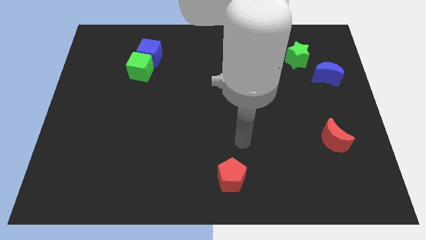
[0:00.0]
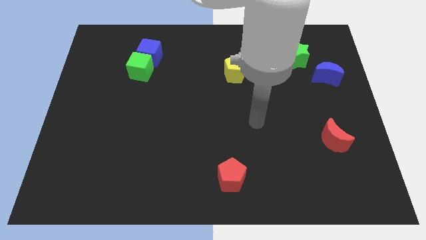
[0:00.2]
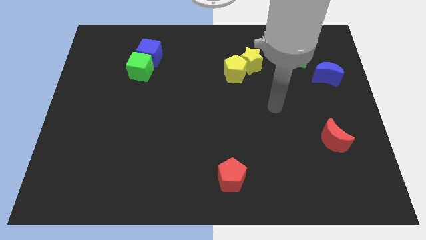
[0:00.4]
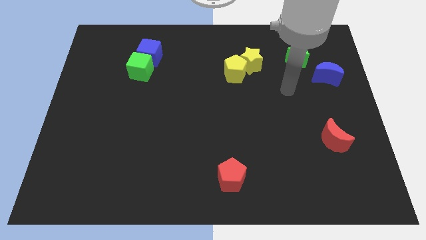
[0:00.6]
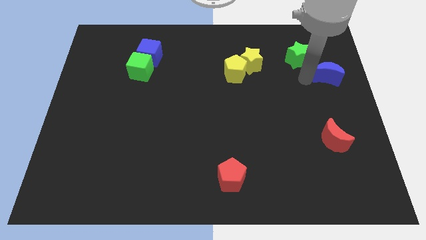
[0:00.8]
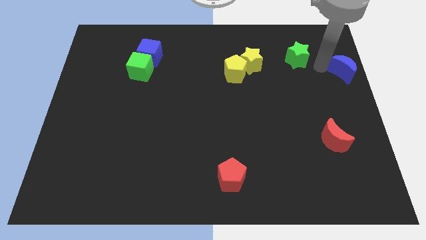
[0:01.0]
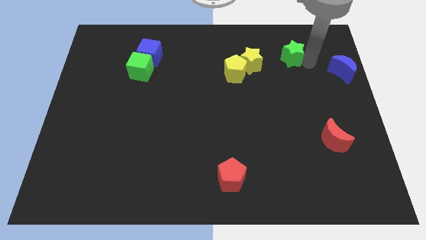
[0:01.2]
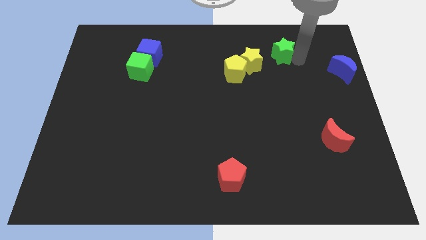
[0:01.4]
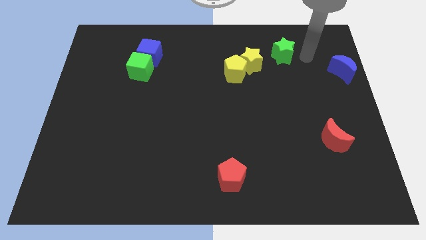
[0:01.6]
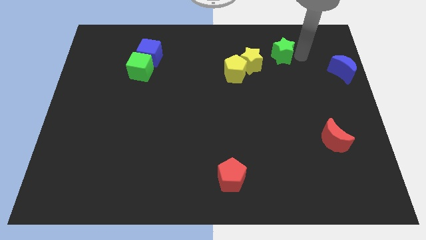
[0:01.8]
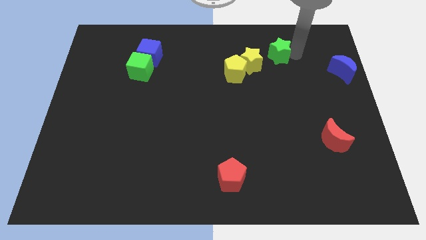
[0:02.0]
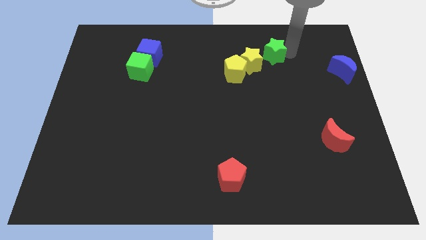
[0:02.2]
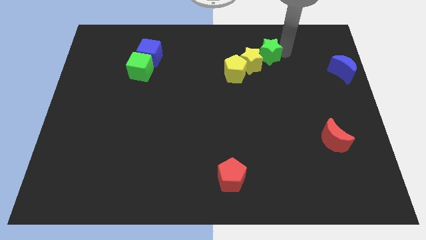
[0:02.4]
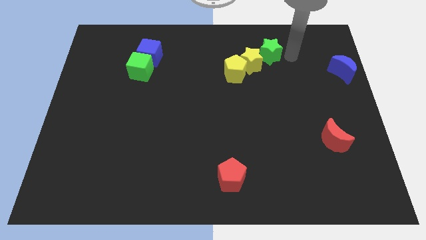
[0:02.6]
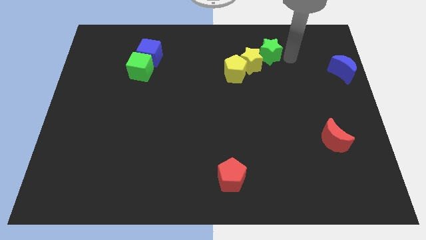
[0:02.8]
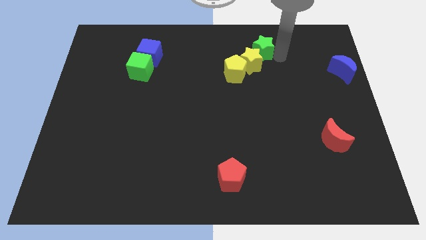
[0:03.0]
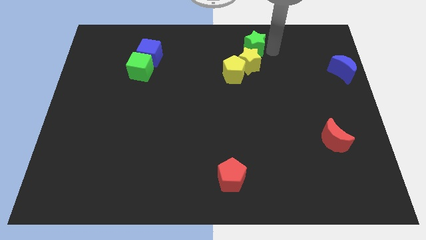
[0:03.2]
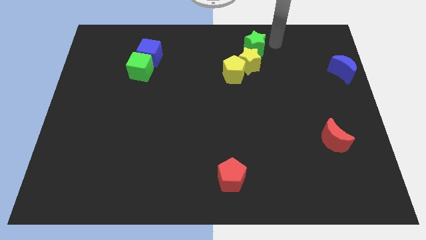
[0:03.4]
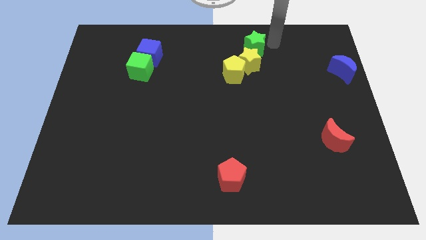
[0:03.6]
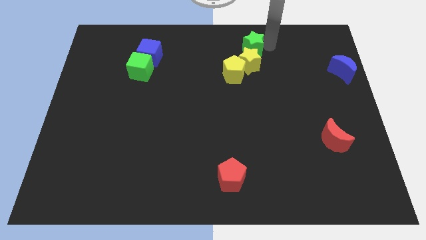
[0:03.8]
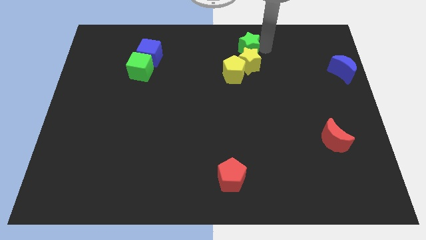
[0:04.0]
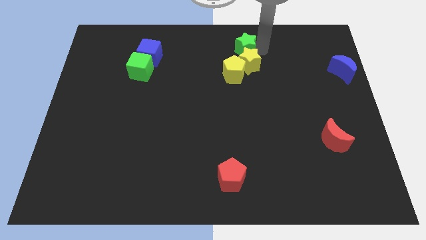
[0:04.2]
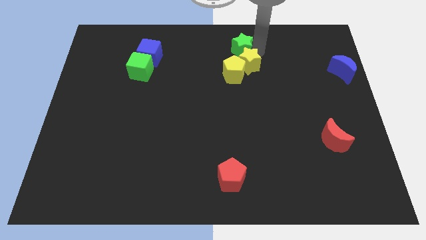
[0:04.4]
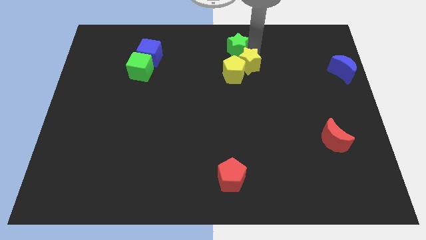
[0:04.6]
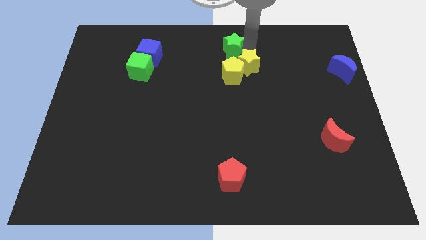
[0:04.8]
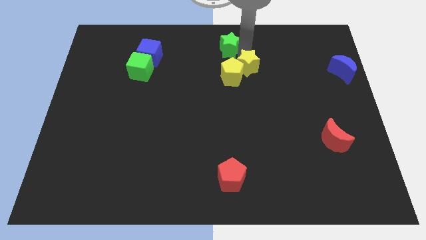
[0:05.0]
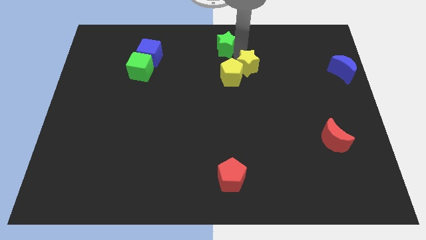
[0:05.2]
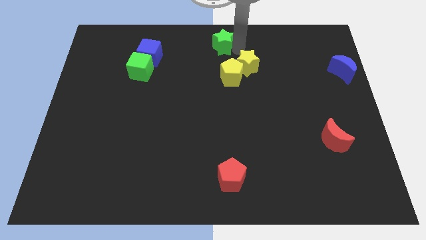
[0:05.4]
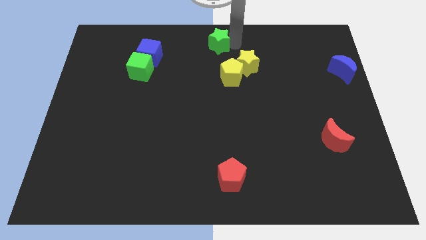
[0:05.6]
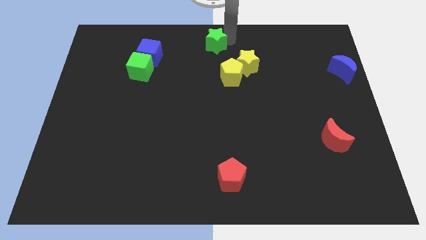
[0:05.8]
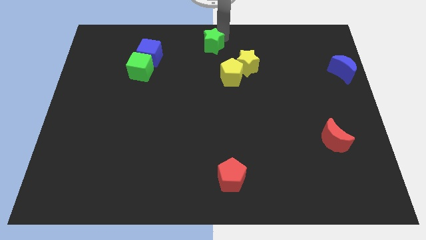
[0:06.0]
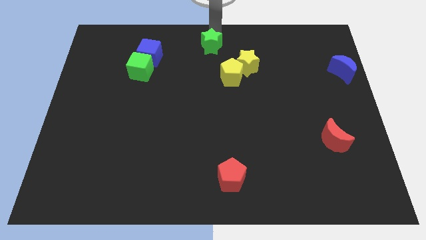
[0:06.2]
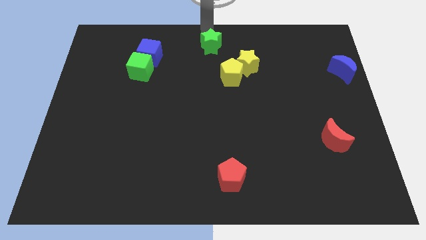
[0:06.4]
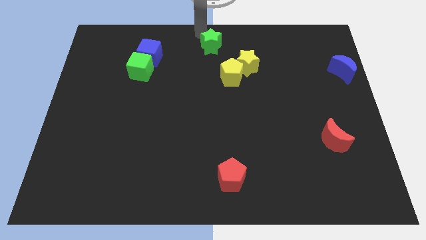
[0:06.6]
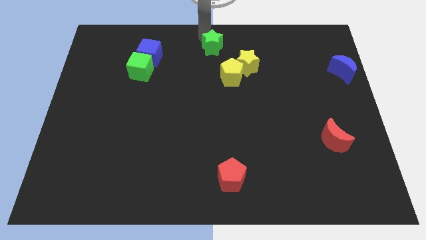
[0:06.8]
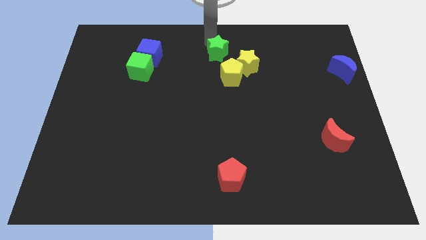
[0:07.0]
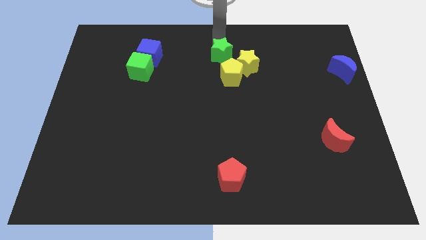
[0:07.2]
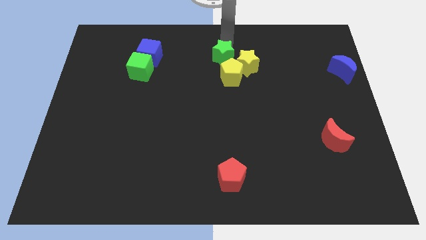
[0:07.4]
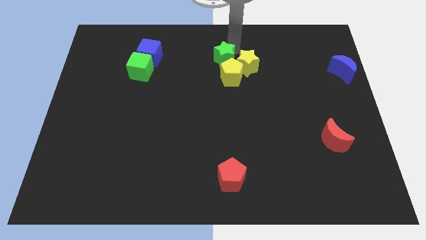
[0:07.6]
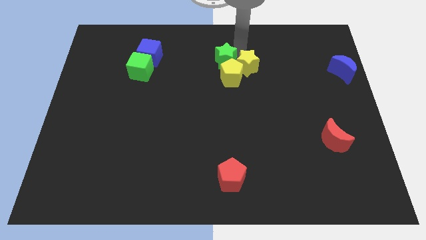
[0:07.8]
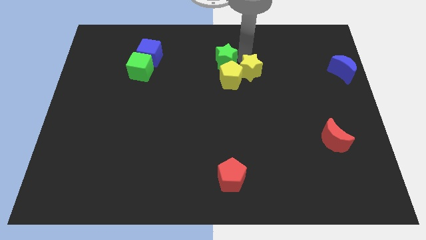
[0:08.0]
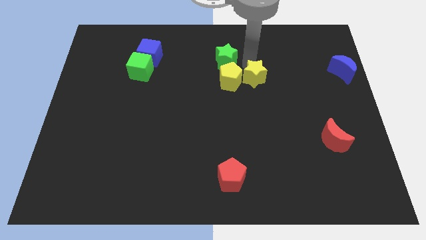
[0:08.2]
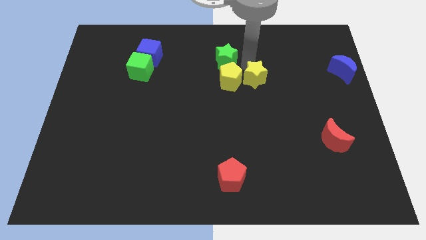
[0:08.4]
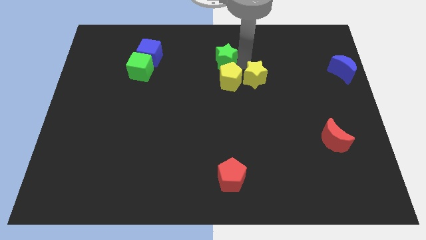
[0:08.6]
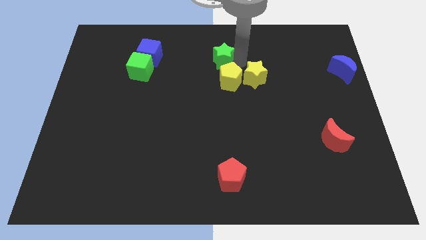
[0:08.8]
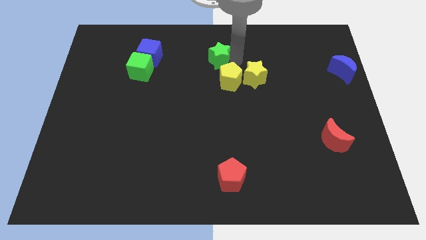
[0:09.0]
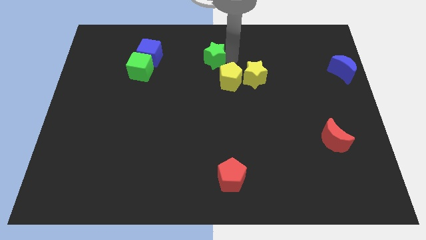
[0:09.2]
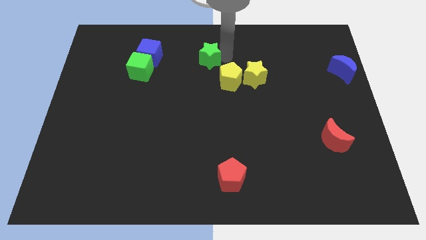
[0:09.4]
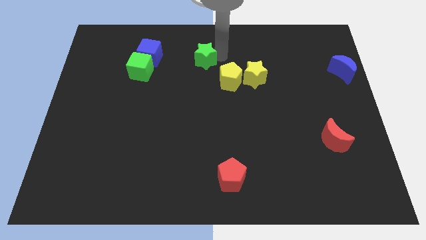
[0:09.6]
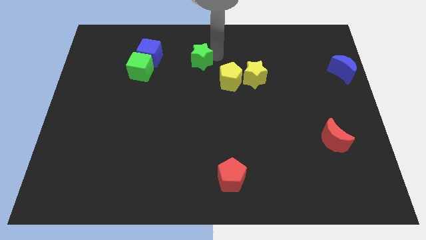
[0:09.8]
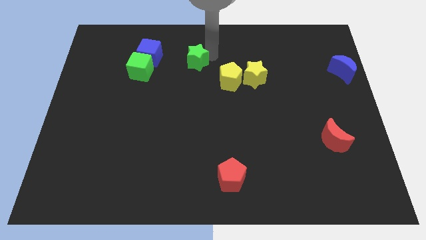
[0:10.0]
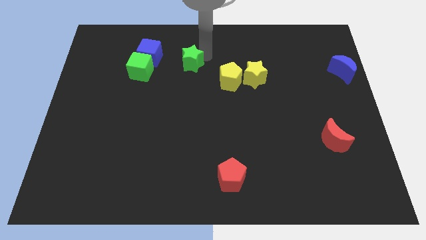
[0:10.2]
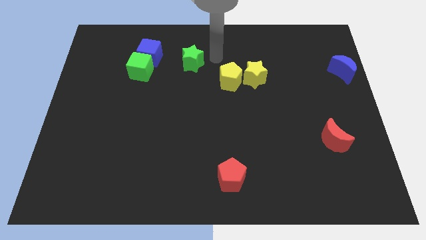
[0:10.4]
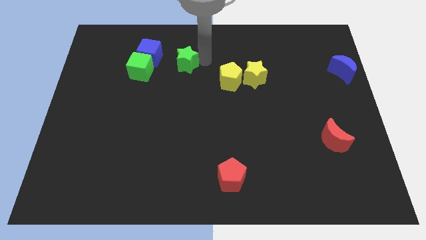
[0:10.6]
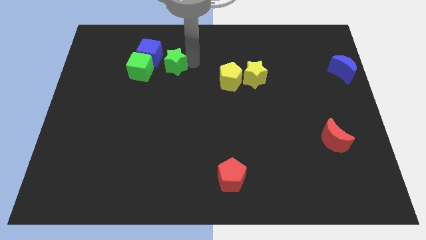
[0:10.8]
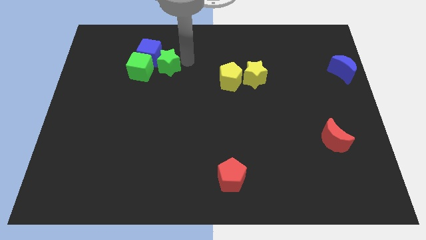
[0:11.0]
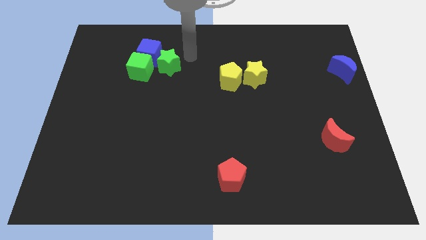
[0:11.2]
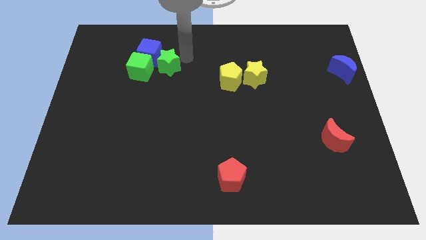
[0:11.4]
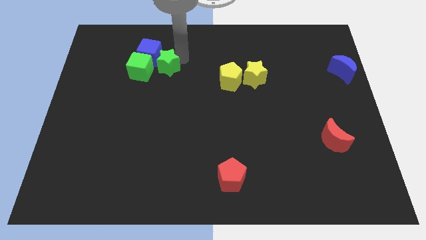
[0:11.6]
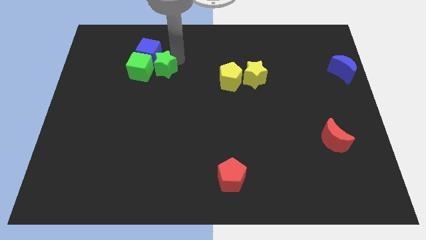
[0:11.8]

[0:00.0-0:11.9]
put the green star next to the green cube

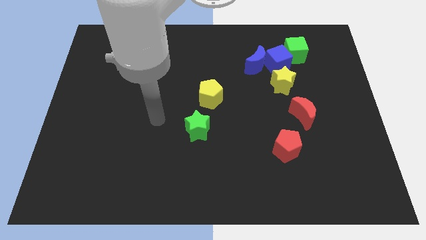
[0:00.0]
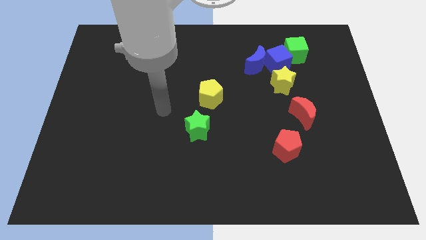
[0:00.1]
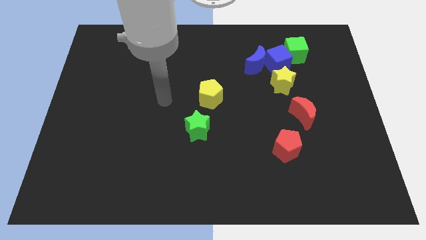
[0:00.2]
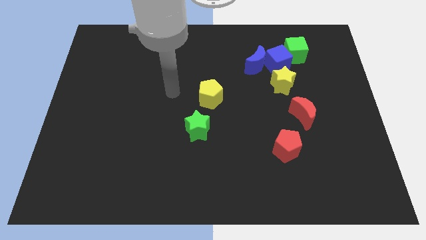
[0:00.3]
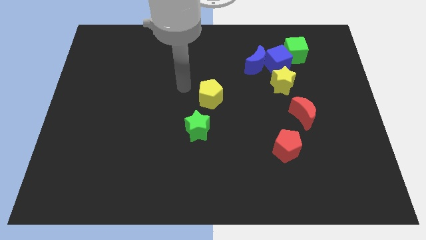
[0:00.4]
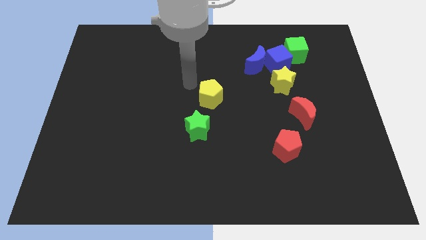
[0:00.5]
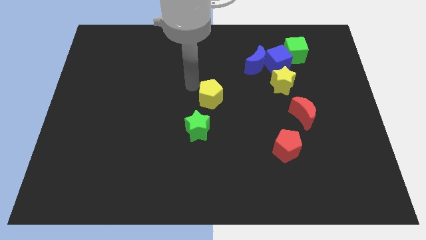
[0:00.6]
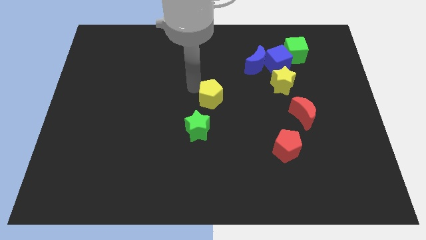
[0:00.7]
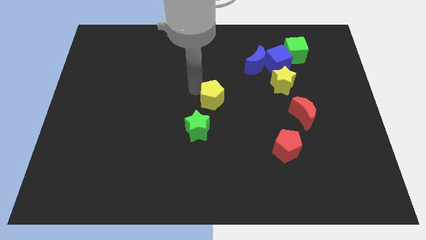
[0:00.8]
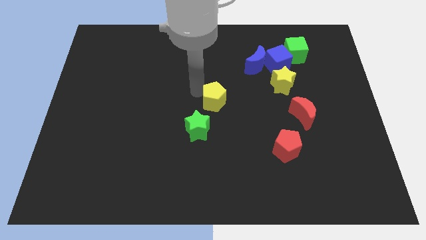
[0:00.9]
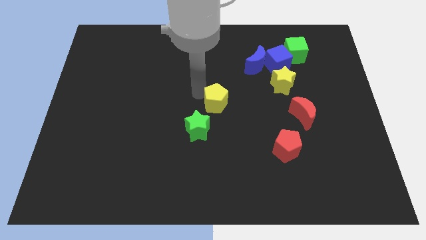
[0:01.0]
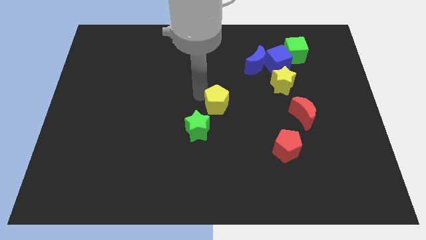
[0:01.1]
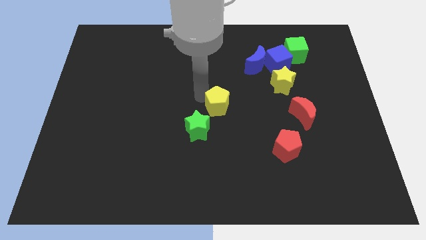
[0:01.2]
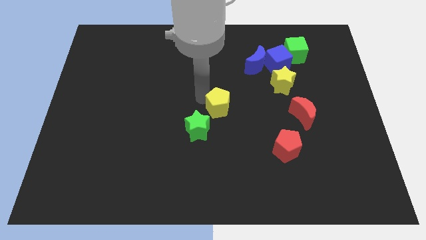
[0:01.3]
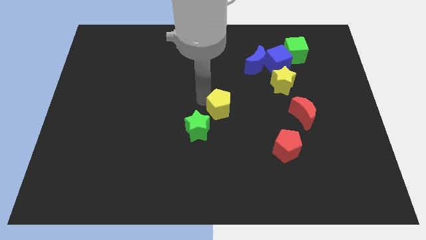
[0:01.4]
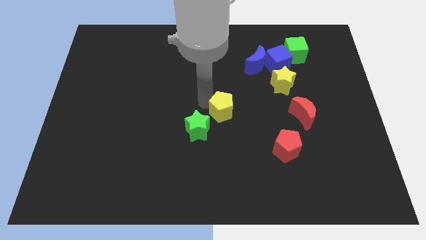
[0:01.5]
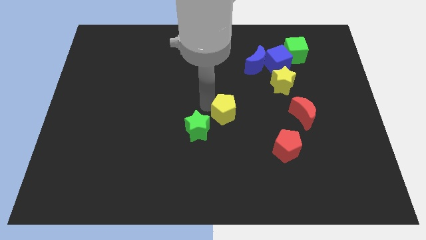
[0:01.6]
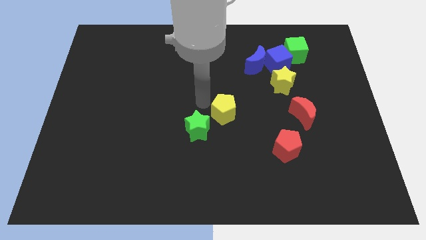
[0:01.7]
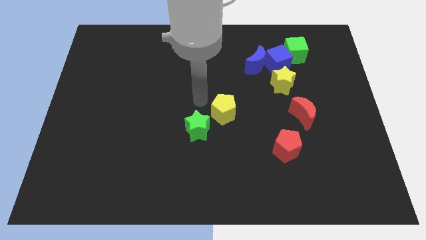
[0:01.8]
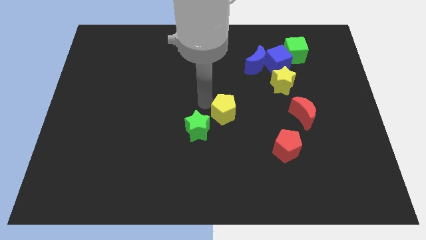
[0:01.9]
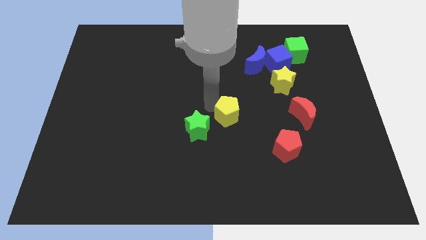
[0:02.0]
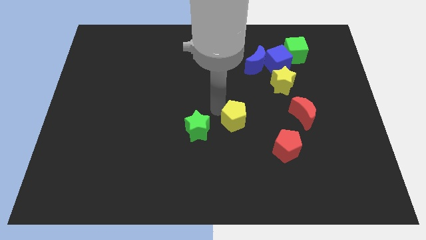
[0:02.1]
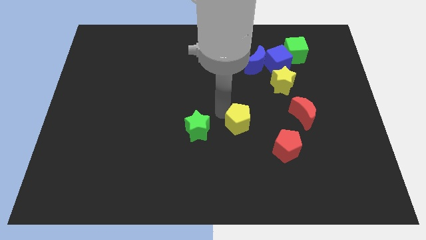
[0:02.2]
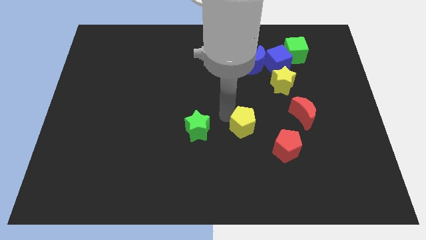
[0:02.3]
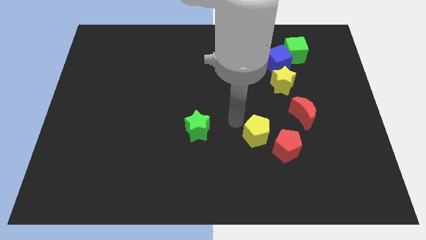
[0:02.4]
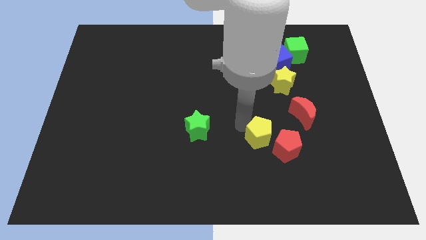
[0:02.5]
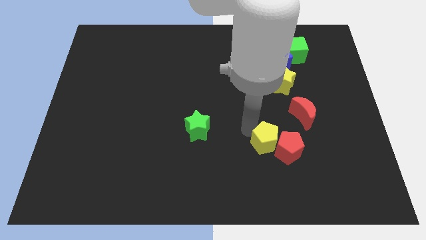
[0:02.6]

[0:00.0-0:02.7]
put the yellow pentagon towards the red pentagon
